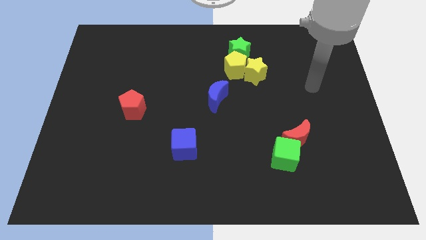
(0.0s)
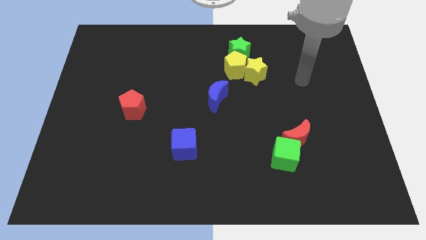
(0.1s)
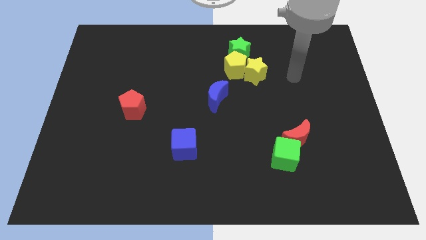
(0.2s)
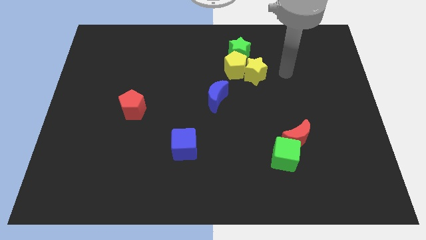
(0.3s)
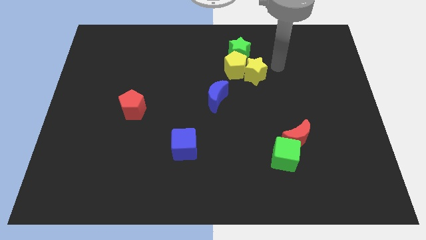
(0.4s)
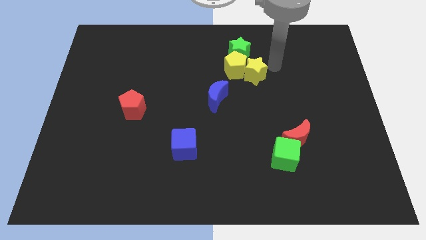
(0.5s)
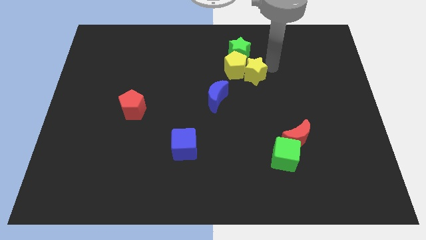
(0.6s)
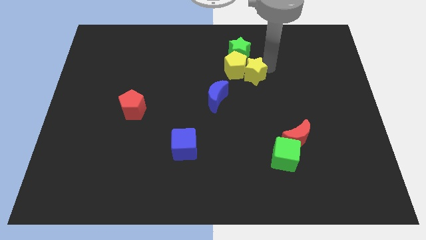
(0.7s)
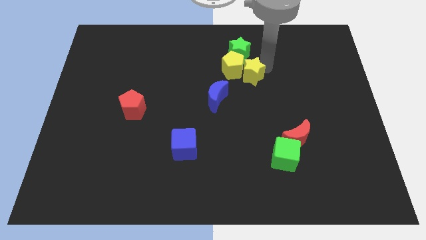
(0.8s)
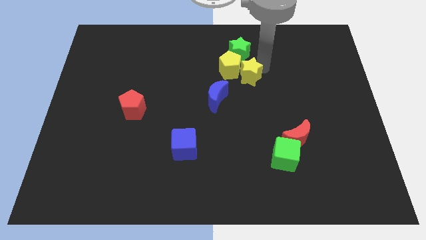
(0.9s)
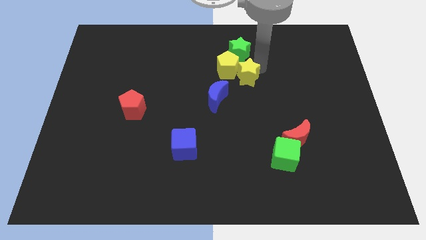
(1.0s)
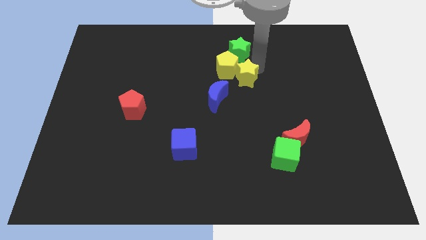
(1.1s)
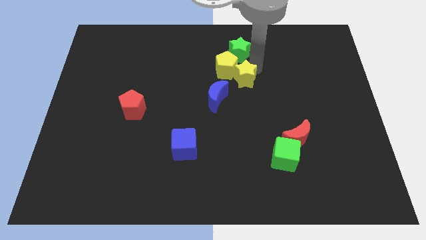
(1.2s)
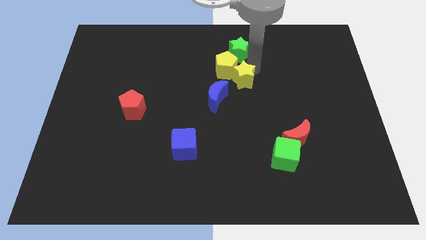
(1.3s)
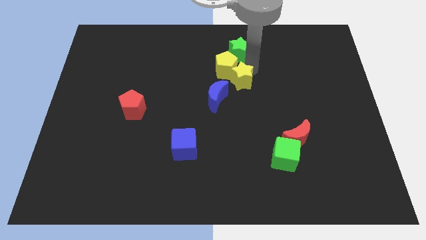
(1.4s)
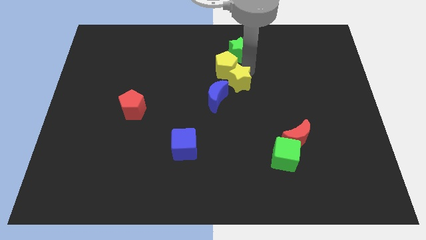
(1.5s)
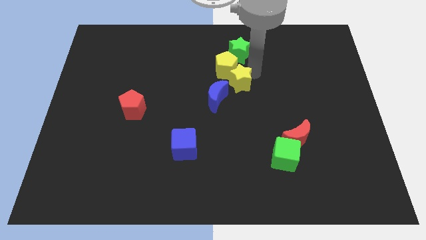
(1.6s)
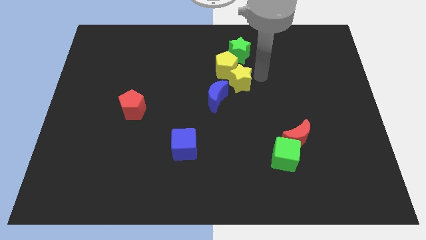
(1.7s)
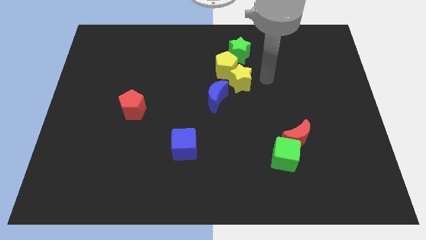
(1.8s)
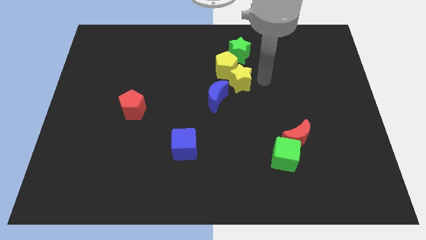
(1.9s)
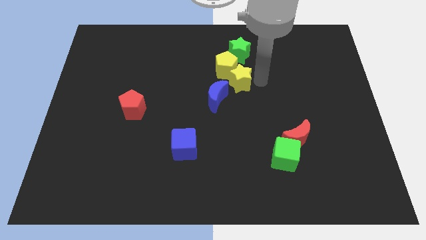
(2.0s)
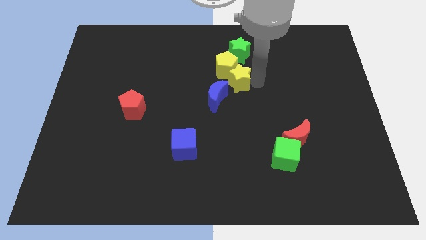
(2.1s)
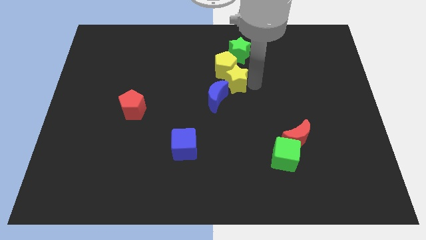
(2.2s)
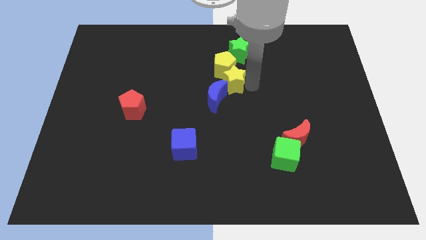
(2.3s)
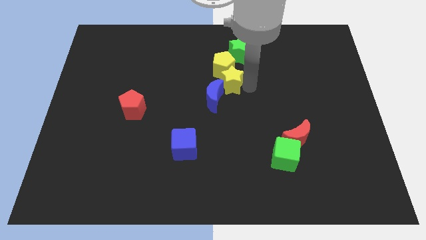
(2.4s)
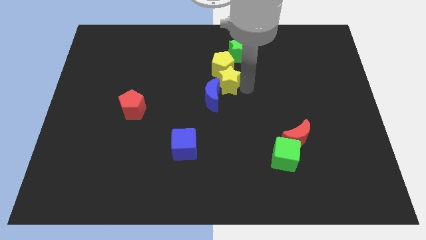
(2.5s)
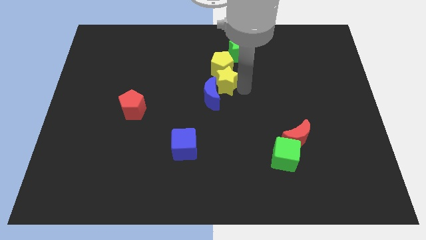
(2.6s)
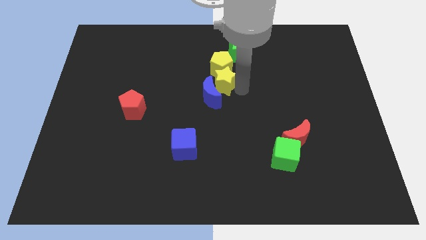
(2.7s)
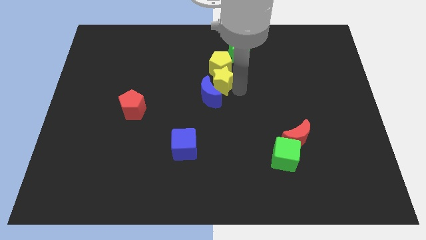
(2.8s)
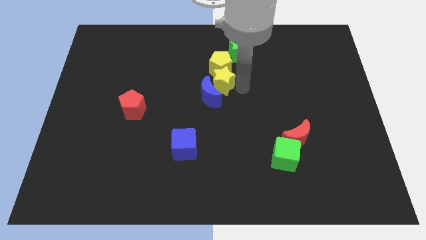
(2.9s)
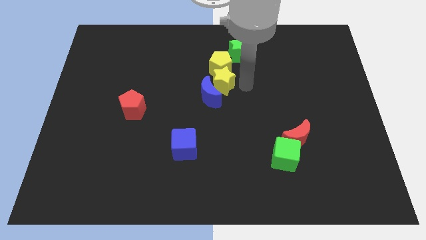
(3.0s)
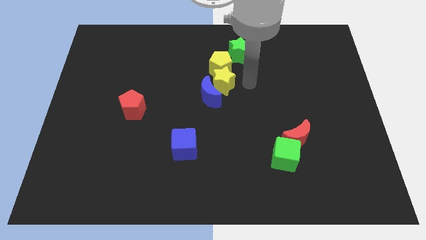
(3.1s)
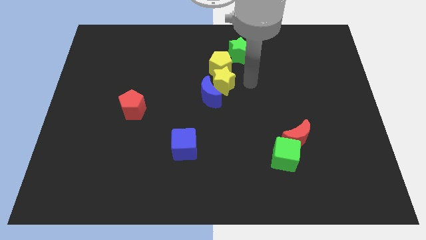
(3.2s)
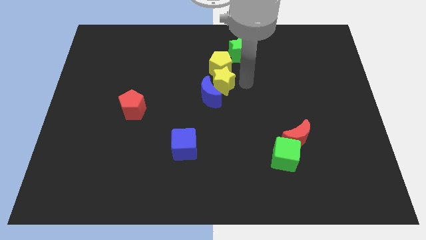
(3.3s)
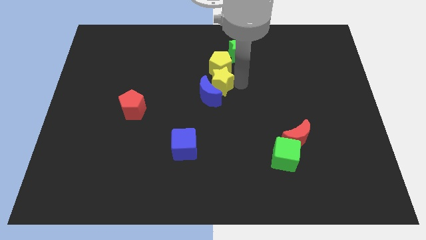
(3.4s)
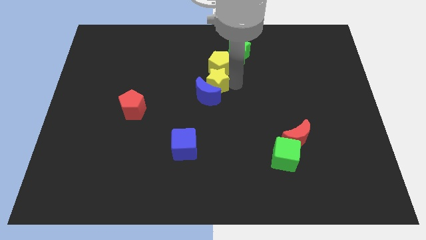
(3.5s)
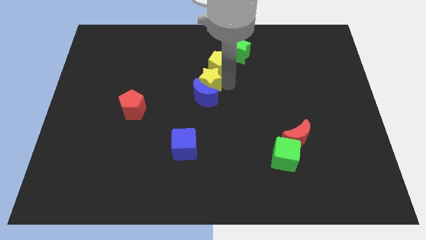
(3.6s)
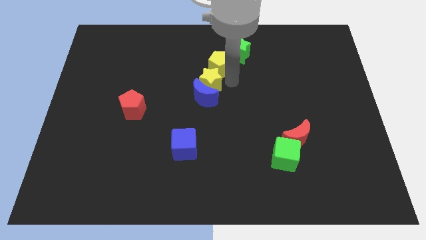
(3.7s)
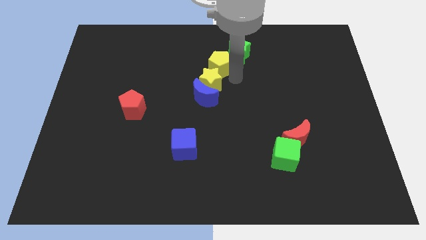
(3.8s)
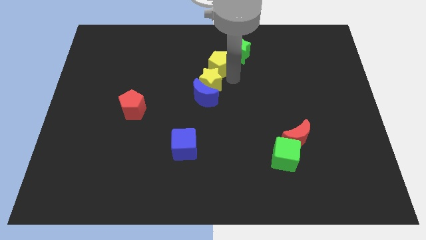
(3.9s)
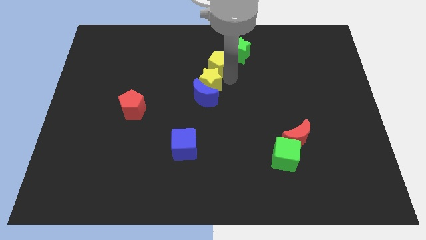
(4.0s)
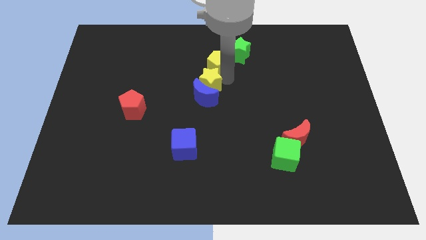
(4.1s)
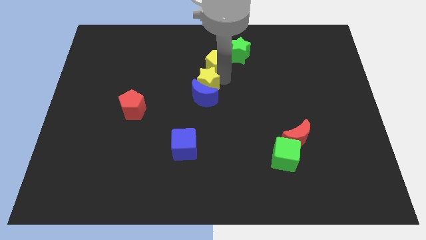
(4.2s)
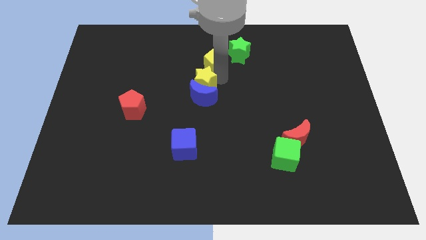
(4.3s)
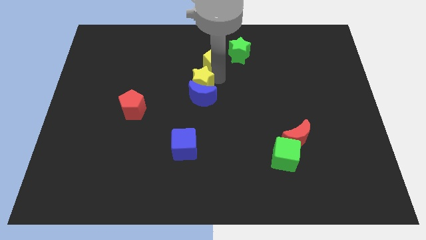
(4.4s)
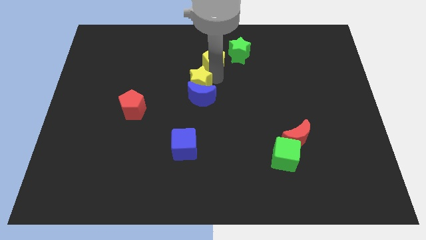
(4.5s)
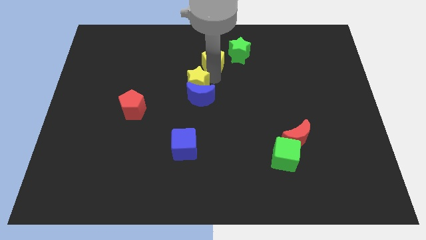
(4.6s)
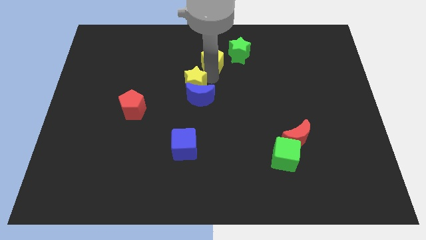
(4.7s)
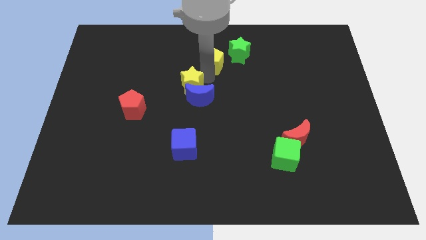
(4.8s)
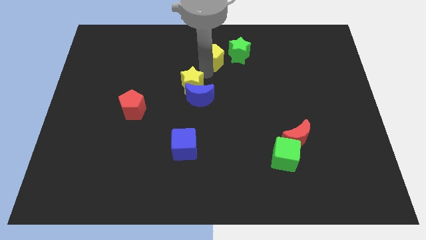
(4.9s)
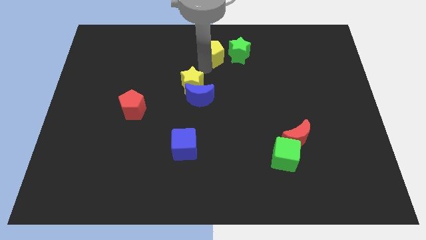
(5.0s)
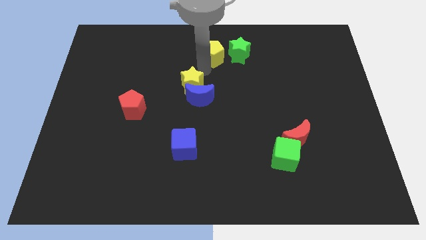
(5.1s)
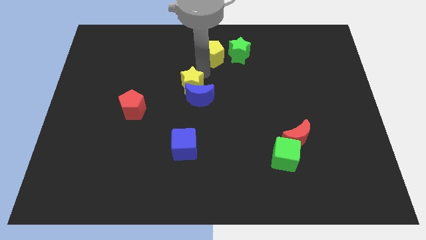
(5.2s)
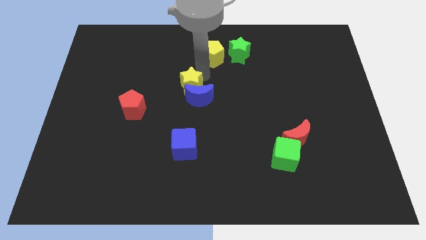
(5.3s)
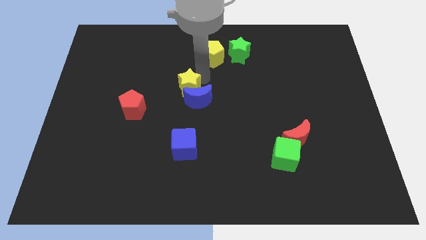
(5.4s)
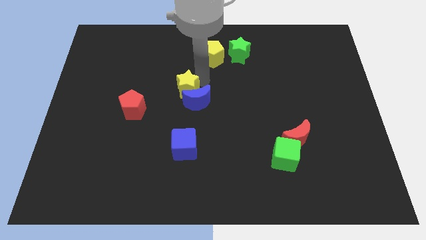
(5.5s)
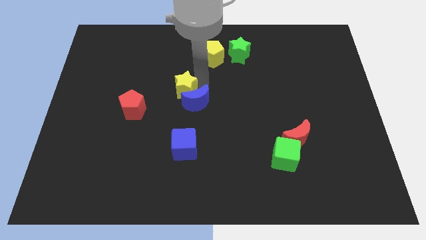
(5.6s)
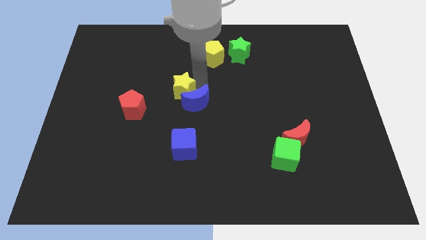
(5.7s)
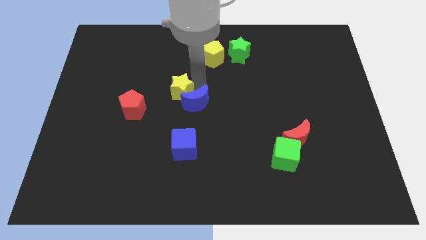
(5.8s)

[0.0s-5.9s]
move the yellow star right of the red pentagon

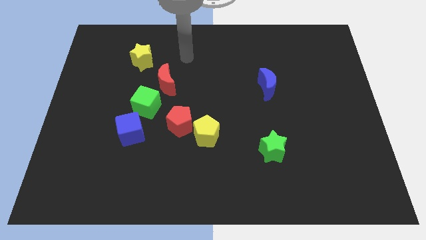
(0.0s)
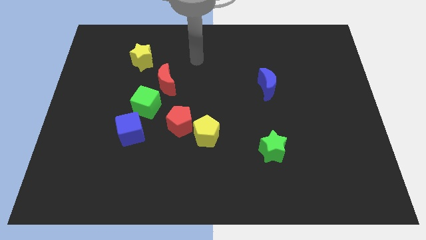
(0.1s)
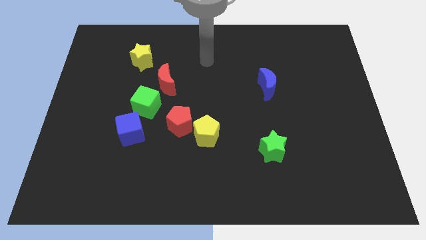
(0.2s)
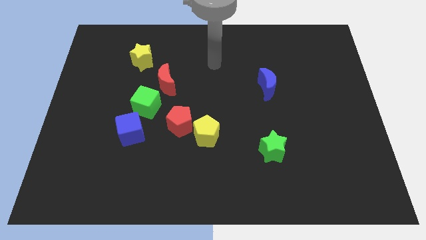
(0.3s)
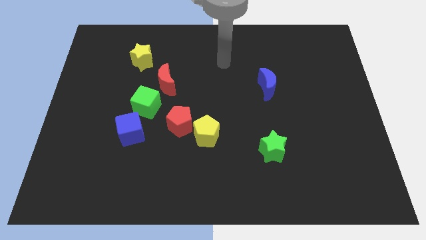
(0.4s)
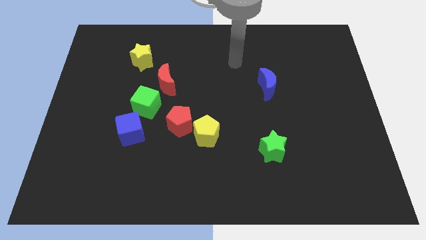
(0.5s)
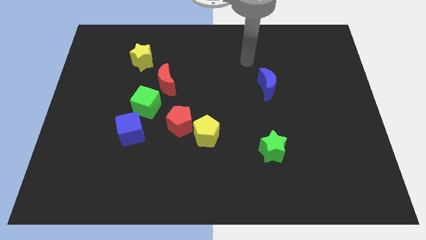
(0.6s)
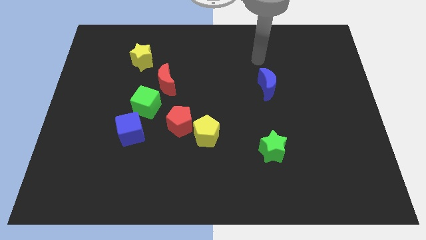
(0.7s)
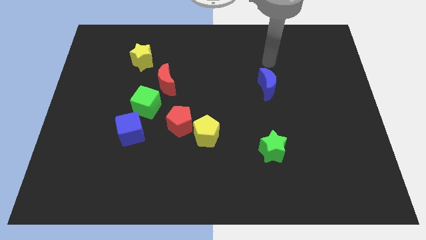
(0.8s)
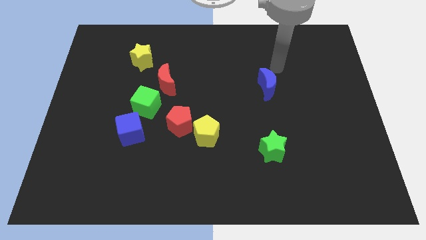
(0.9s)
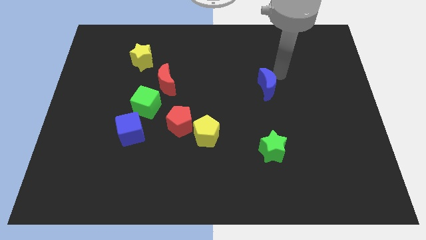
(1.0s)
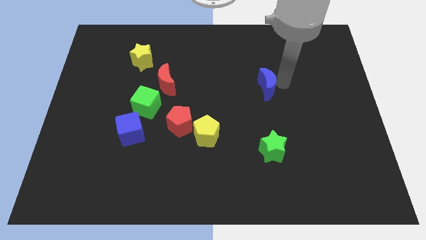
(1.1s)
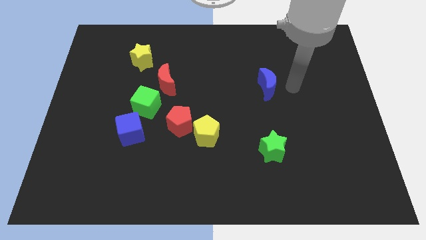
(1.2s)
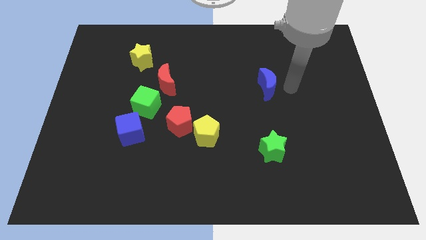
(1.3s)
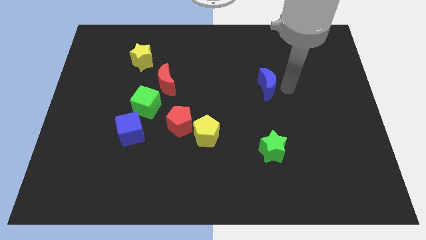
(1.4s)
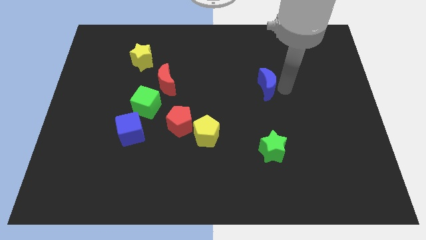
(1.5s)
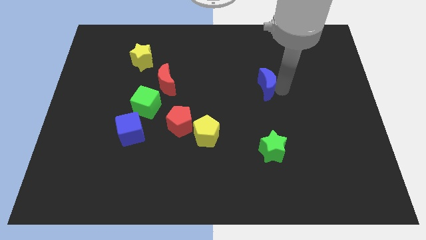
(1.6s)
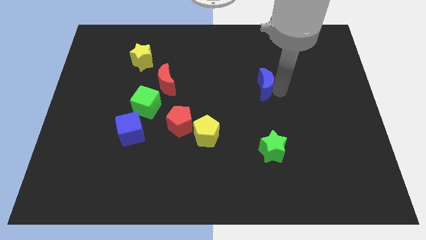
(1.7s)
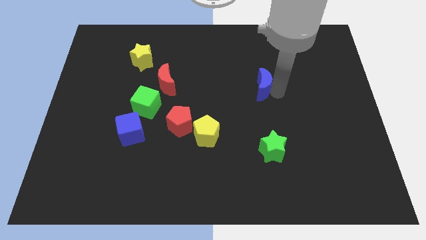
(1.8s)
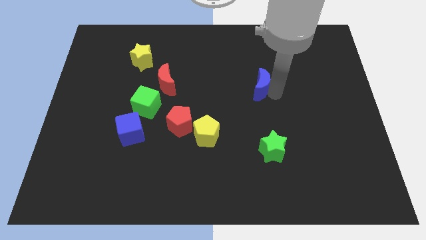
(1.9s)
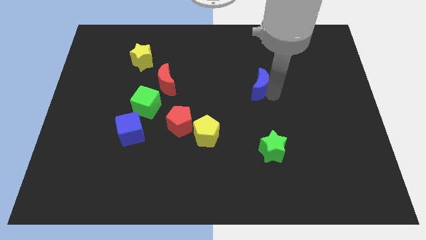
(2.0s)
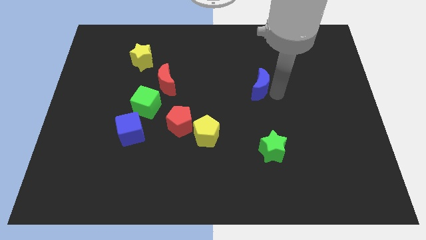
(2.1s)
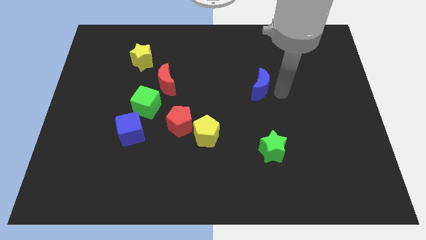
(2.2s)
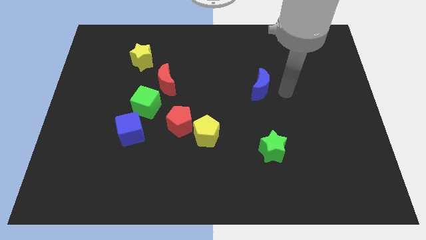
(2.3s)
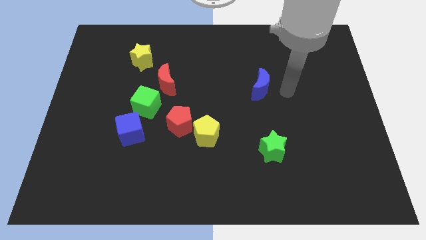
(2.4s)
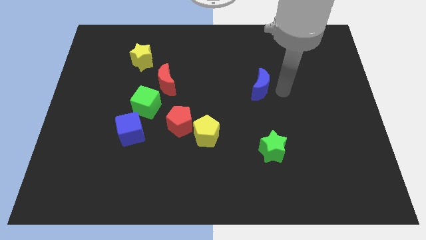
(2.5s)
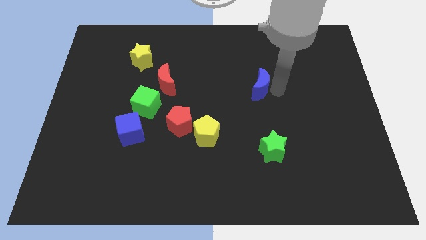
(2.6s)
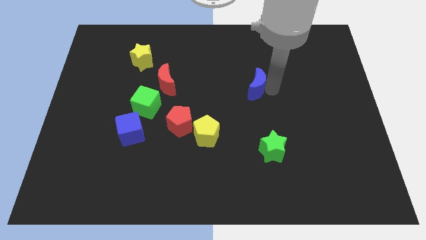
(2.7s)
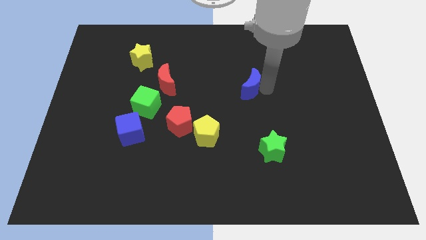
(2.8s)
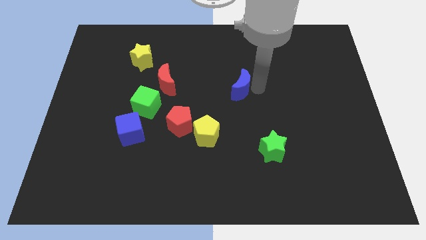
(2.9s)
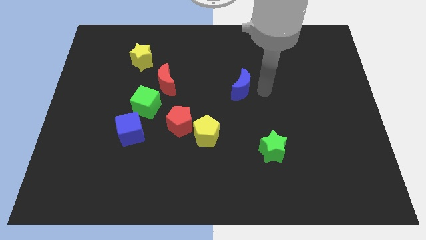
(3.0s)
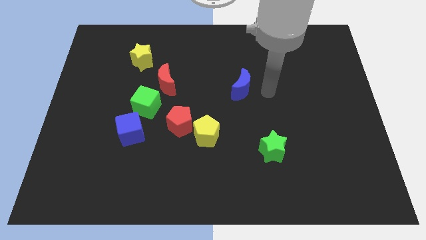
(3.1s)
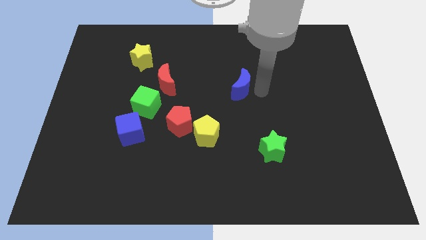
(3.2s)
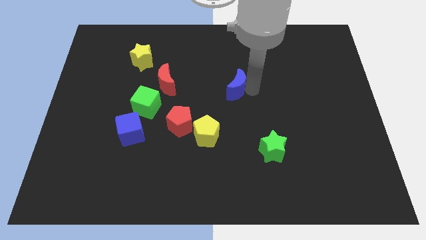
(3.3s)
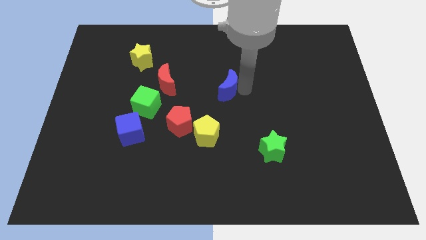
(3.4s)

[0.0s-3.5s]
slide the blue moon just right of the red moon
